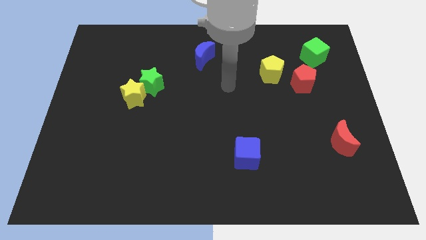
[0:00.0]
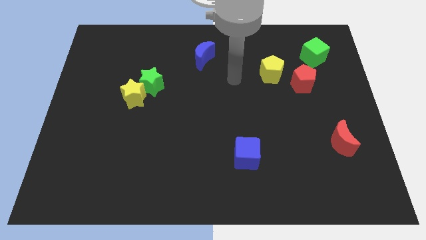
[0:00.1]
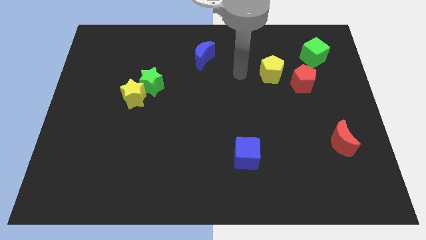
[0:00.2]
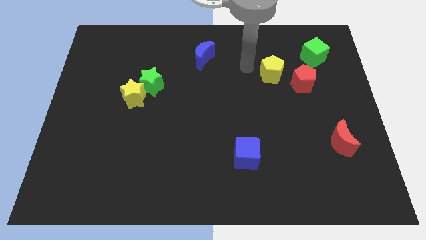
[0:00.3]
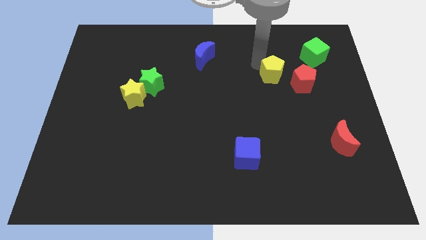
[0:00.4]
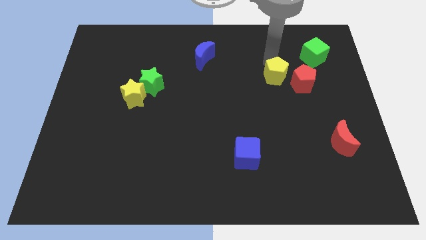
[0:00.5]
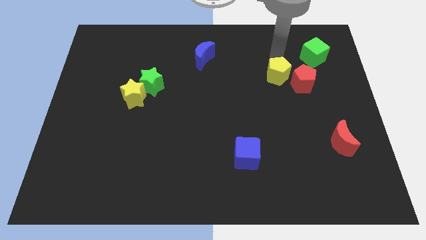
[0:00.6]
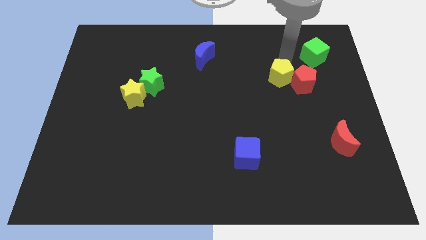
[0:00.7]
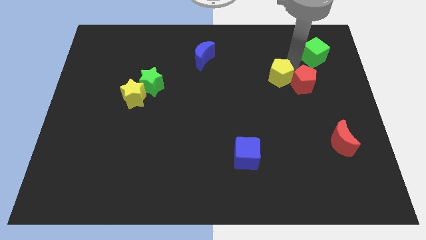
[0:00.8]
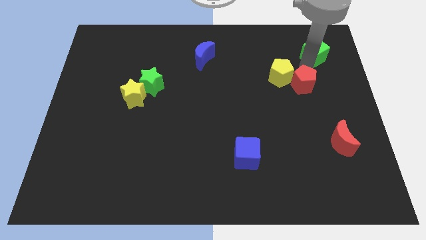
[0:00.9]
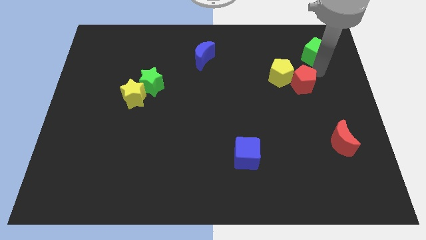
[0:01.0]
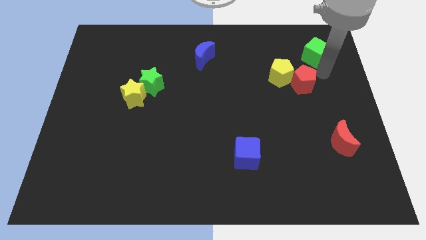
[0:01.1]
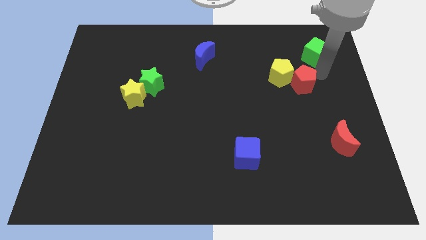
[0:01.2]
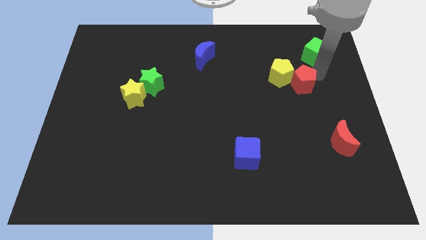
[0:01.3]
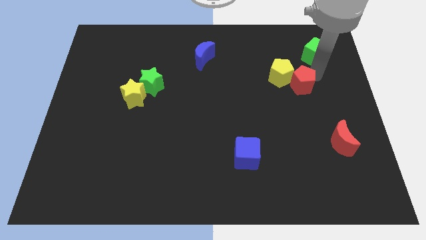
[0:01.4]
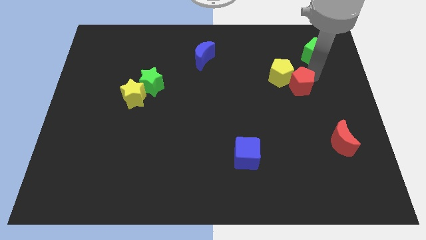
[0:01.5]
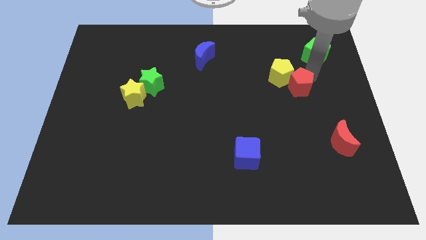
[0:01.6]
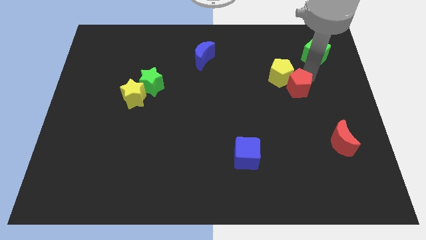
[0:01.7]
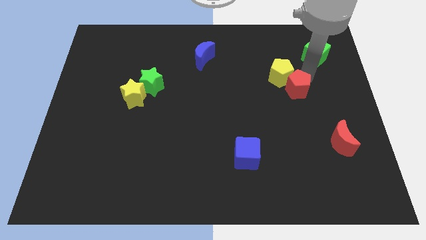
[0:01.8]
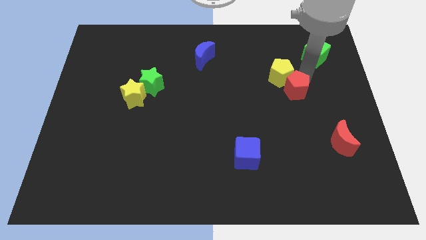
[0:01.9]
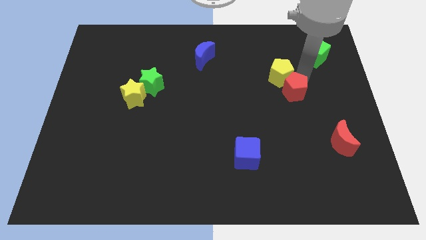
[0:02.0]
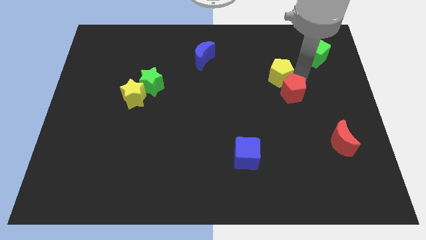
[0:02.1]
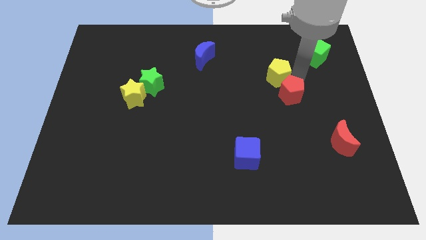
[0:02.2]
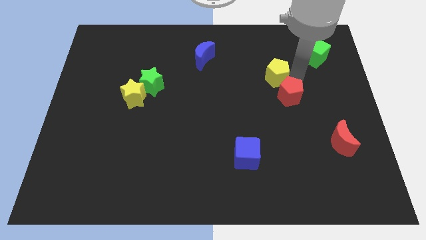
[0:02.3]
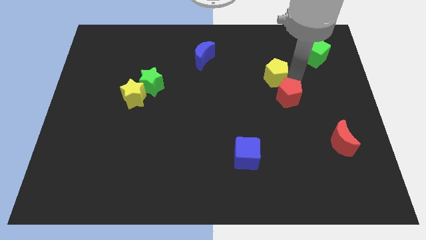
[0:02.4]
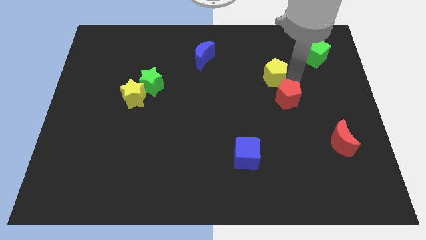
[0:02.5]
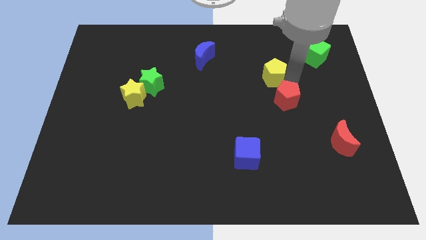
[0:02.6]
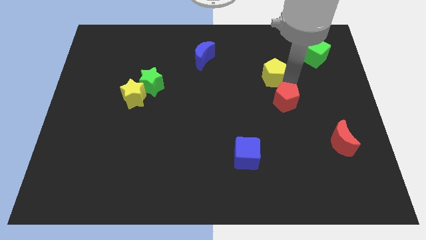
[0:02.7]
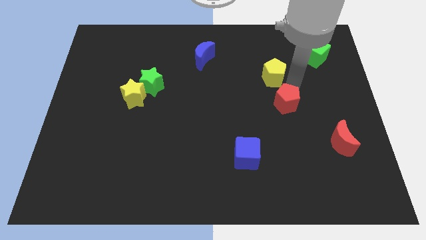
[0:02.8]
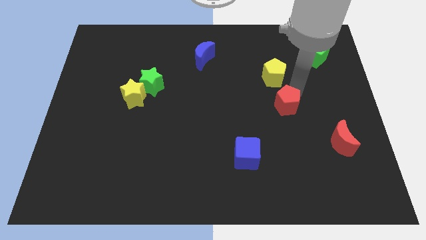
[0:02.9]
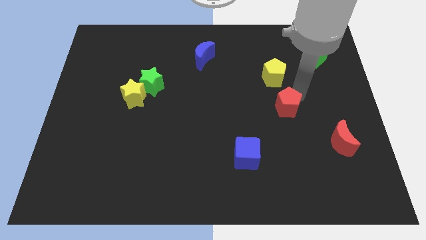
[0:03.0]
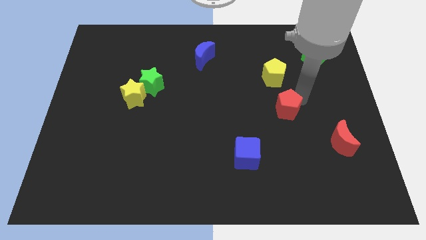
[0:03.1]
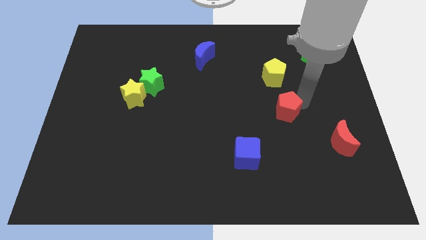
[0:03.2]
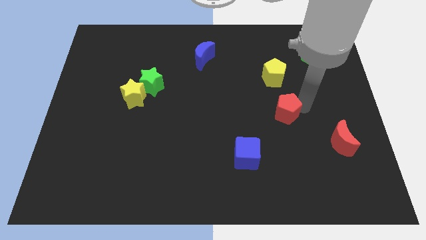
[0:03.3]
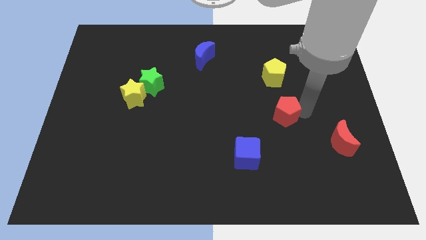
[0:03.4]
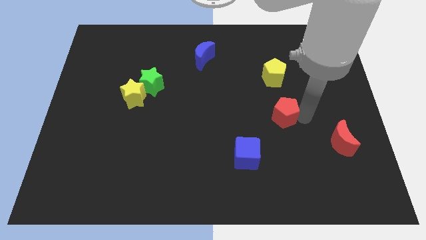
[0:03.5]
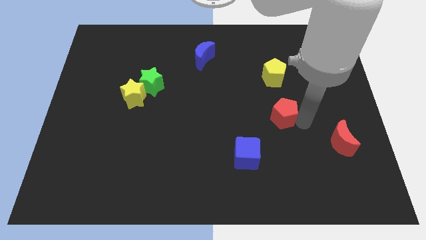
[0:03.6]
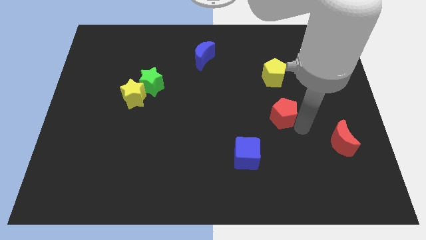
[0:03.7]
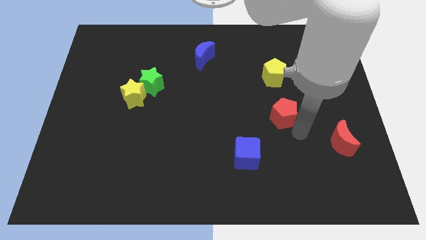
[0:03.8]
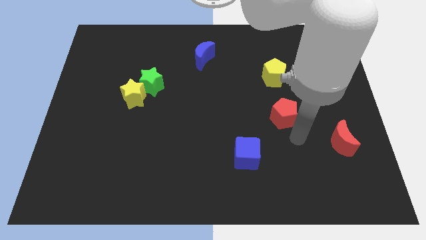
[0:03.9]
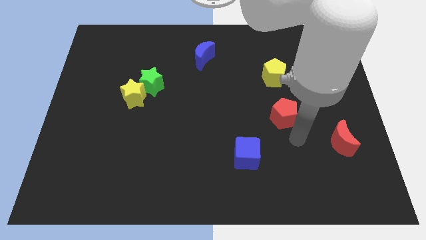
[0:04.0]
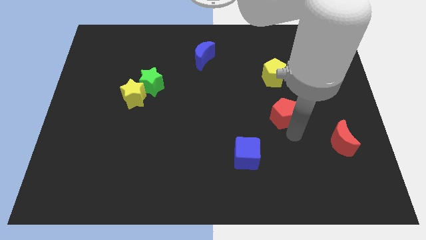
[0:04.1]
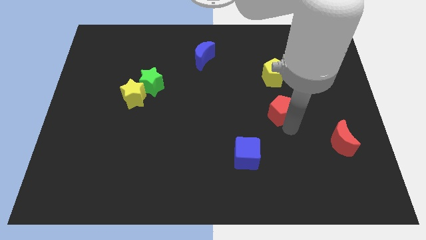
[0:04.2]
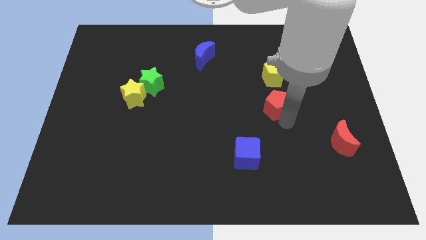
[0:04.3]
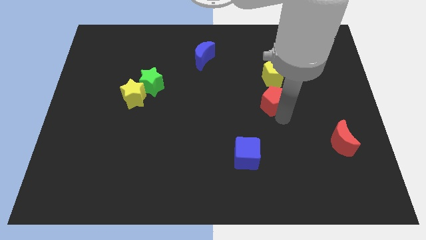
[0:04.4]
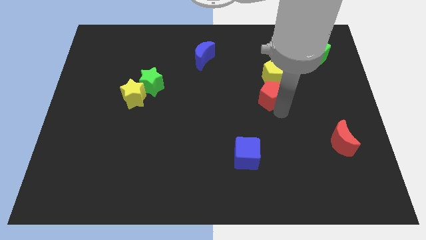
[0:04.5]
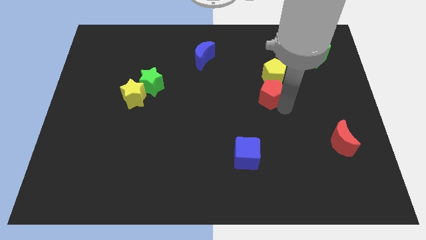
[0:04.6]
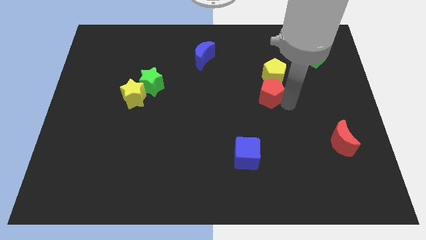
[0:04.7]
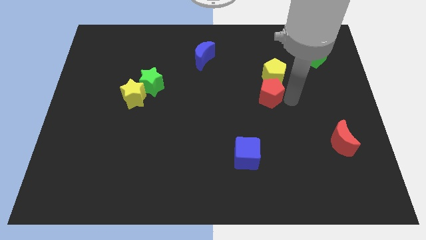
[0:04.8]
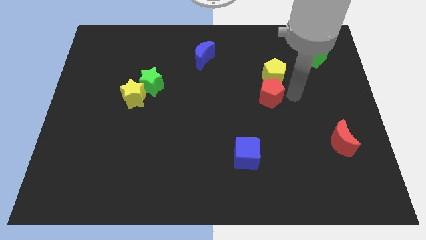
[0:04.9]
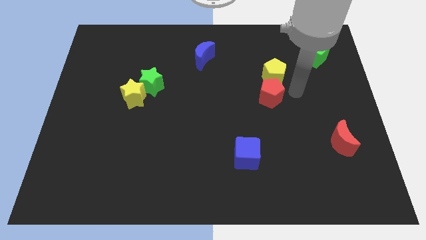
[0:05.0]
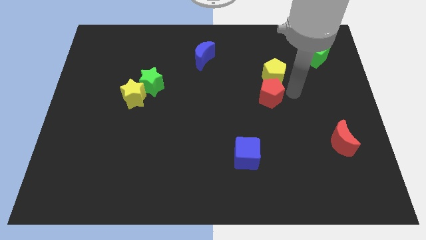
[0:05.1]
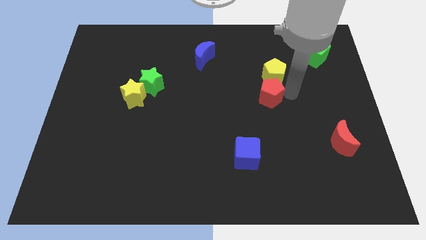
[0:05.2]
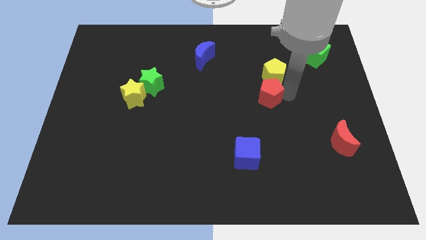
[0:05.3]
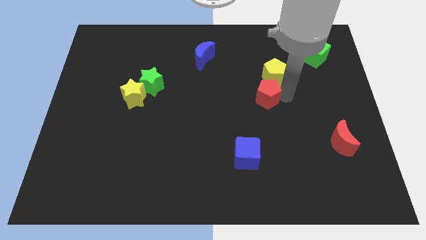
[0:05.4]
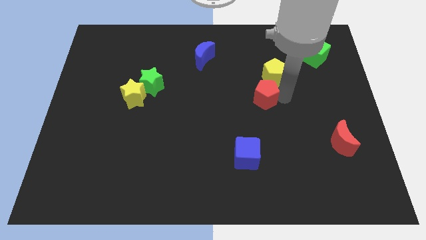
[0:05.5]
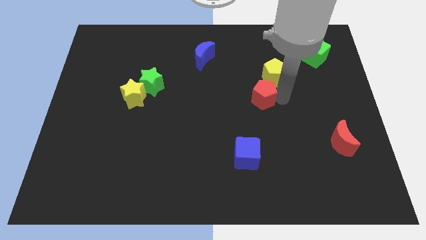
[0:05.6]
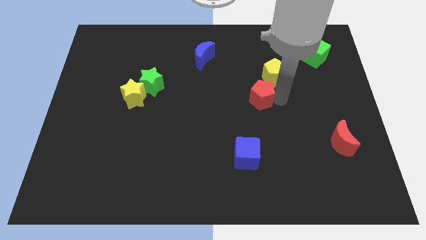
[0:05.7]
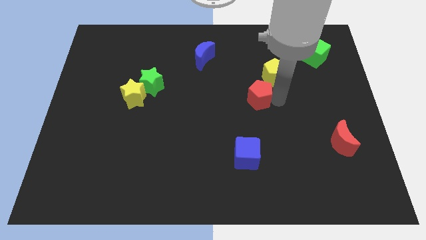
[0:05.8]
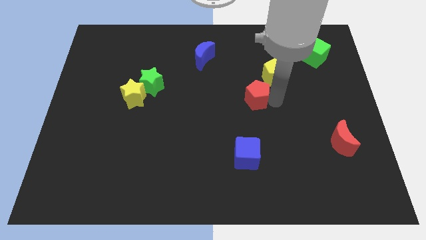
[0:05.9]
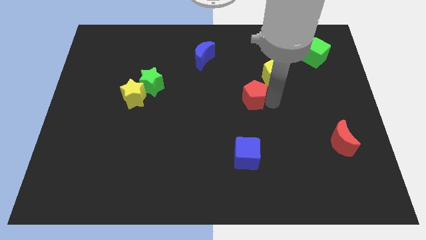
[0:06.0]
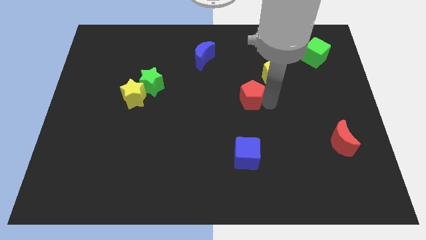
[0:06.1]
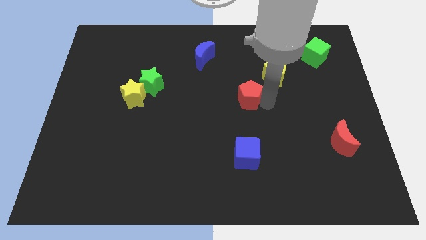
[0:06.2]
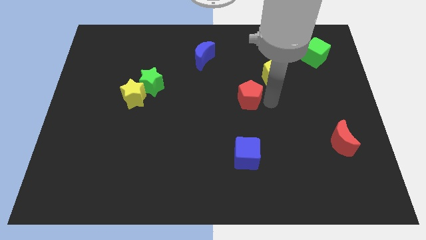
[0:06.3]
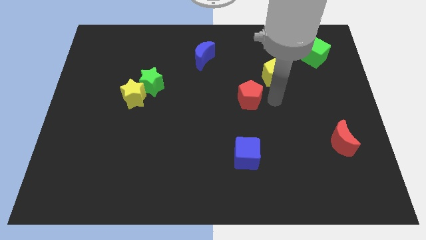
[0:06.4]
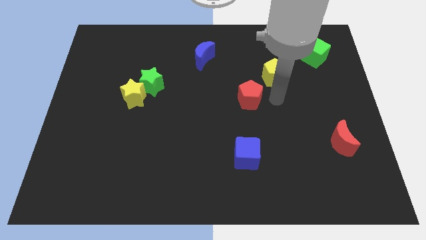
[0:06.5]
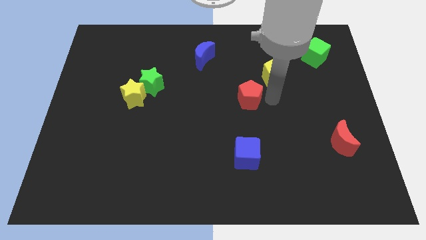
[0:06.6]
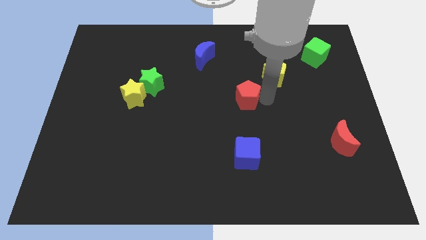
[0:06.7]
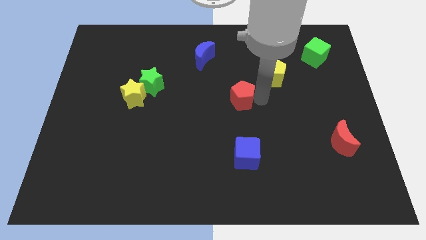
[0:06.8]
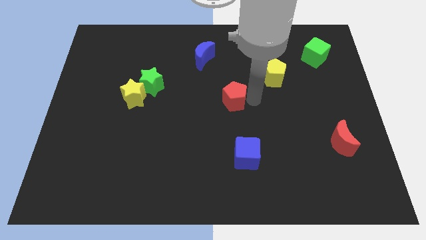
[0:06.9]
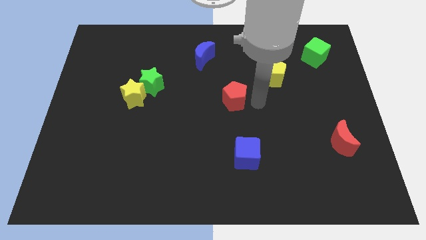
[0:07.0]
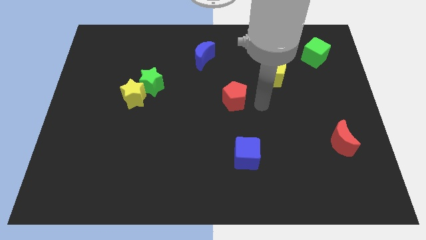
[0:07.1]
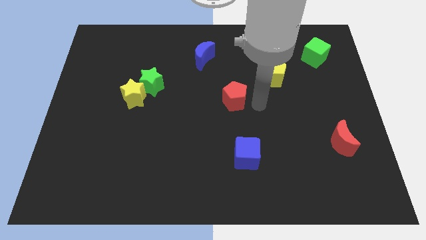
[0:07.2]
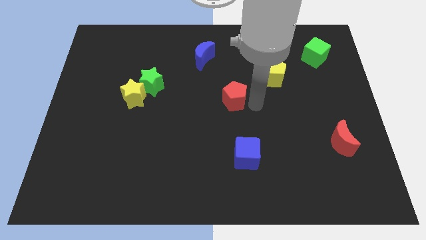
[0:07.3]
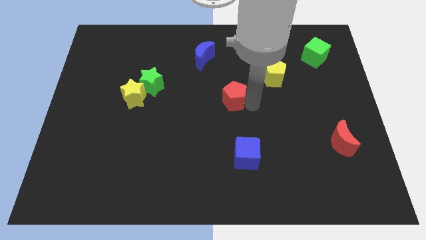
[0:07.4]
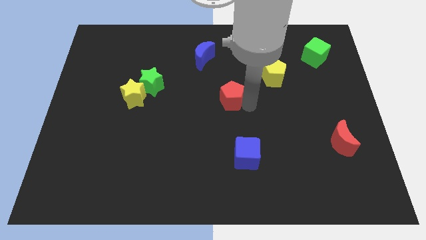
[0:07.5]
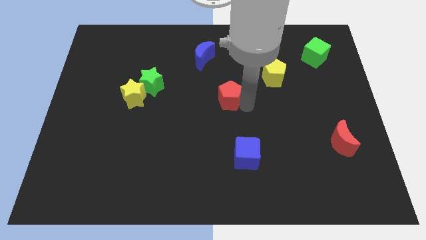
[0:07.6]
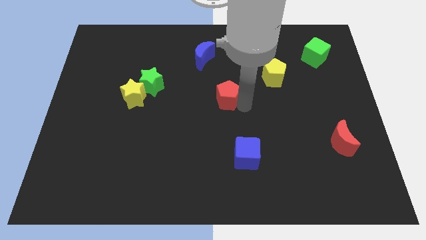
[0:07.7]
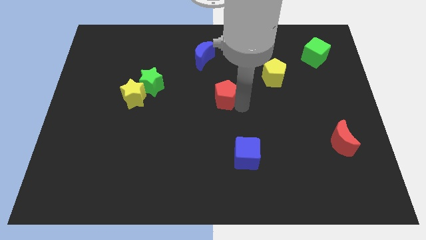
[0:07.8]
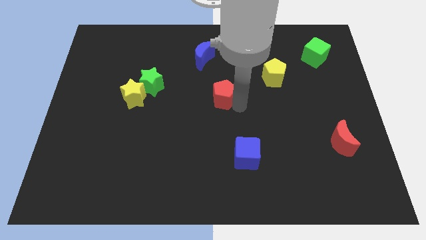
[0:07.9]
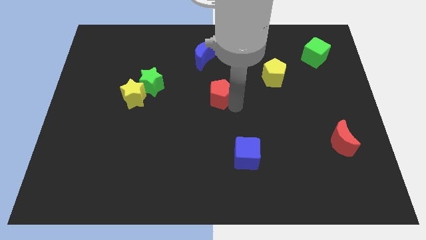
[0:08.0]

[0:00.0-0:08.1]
slide the red pentagon left
